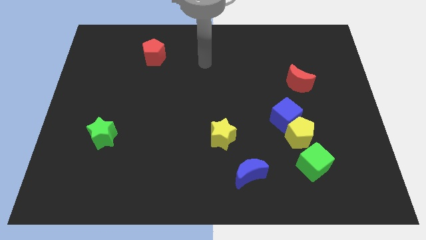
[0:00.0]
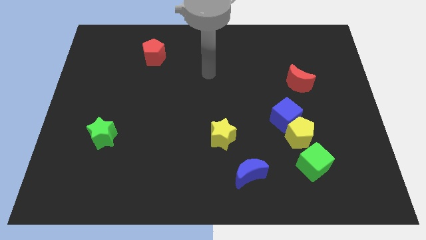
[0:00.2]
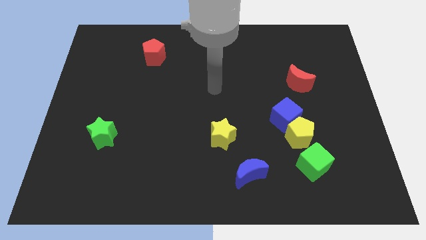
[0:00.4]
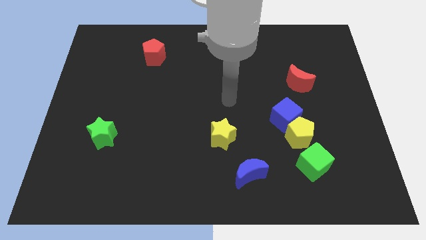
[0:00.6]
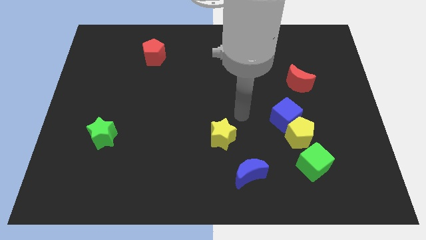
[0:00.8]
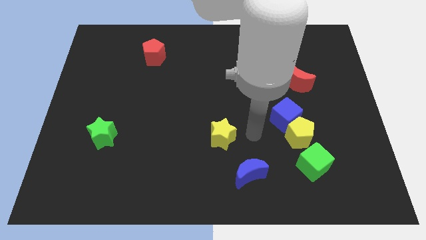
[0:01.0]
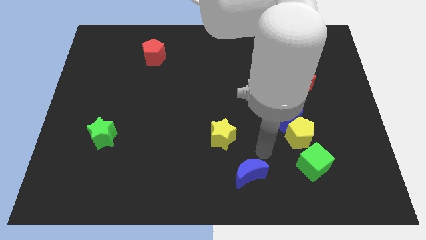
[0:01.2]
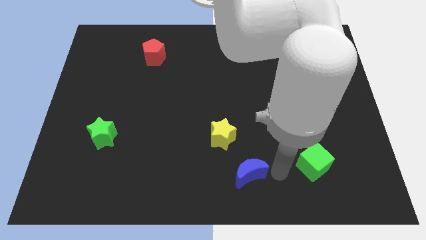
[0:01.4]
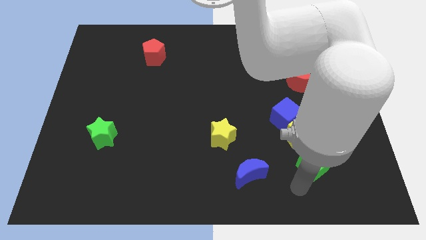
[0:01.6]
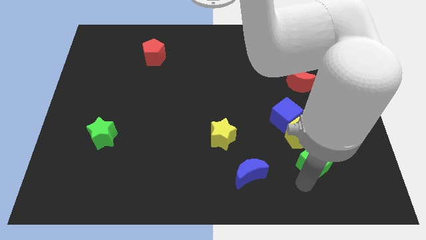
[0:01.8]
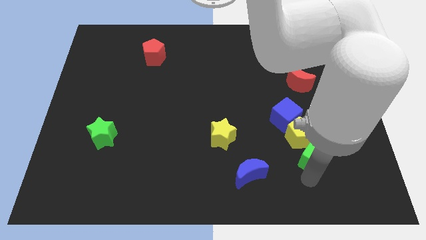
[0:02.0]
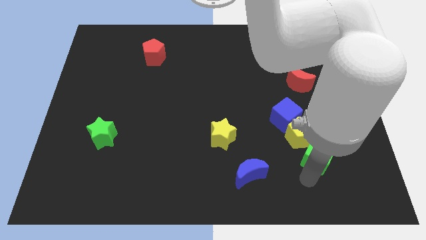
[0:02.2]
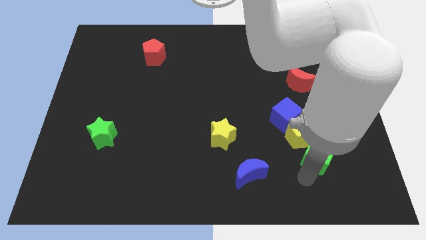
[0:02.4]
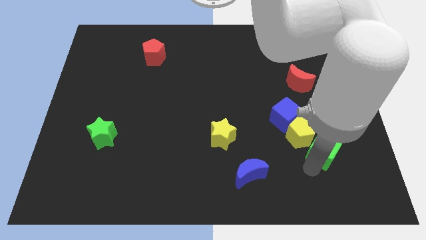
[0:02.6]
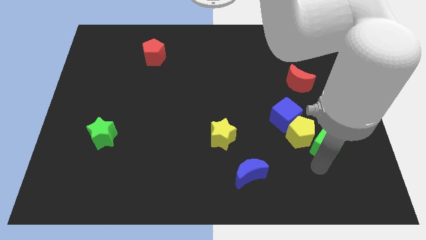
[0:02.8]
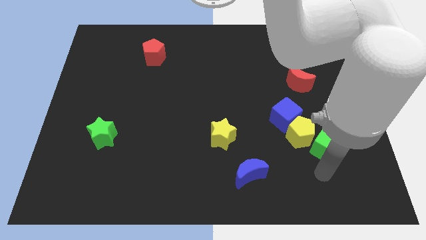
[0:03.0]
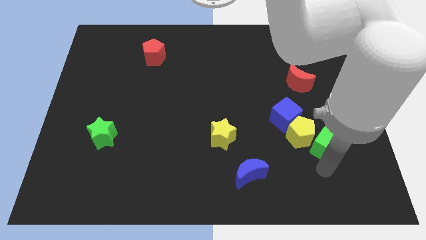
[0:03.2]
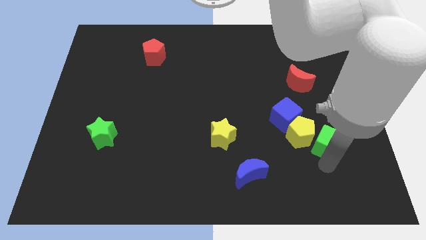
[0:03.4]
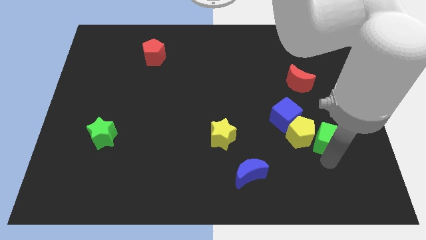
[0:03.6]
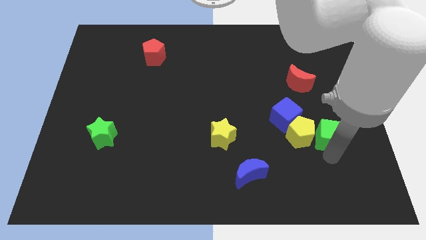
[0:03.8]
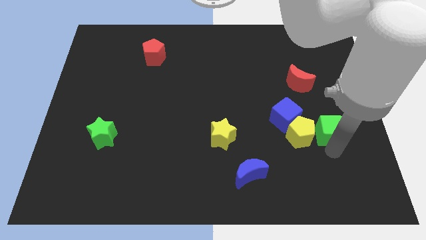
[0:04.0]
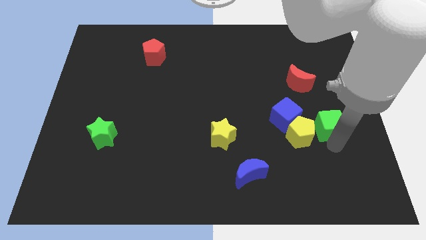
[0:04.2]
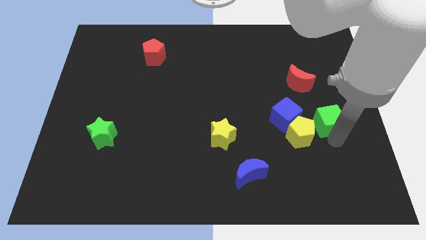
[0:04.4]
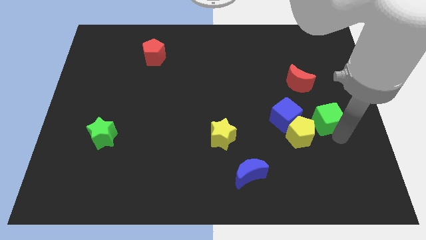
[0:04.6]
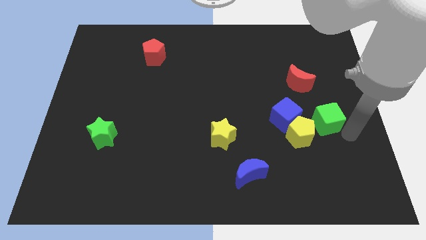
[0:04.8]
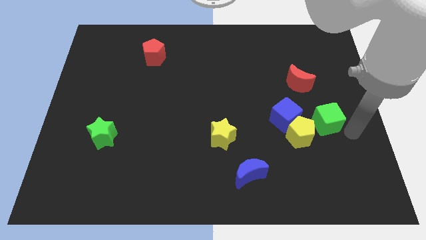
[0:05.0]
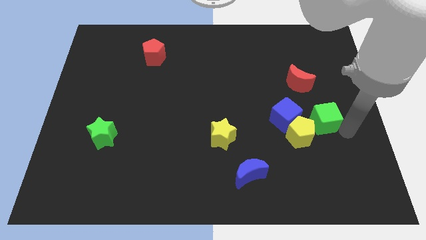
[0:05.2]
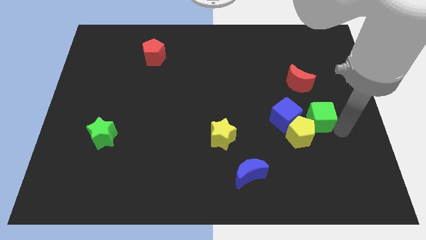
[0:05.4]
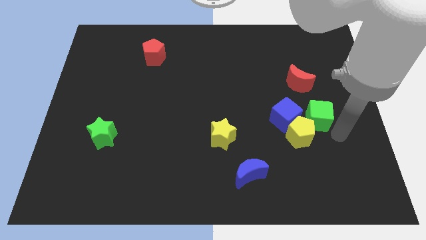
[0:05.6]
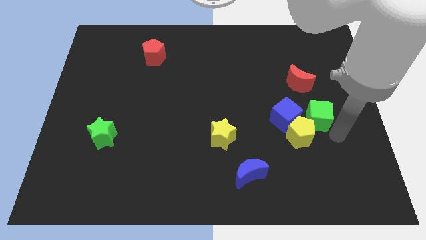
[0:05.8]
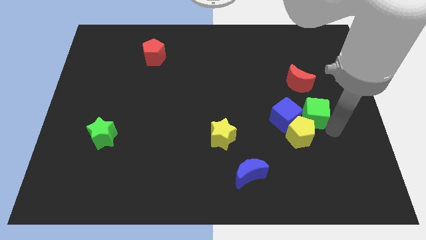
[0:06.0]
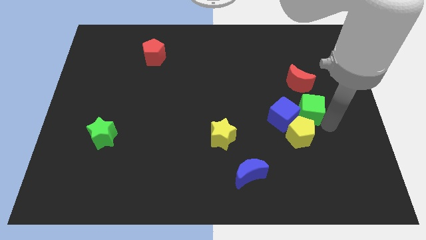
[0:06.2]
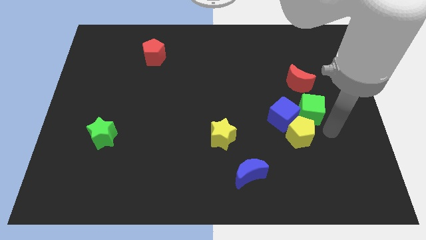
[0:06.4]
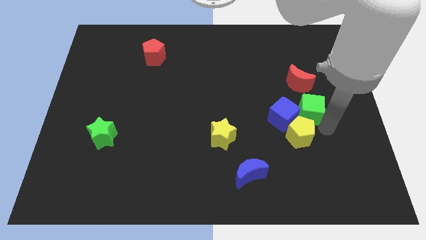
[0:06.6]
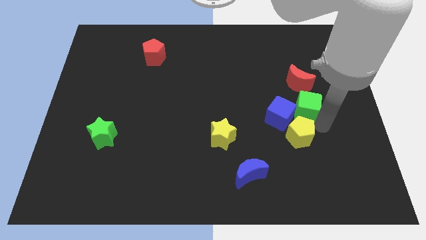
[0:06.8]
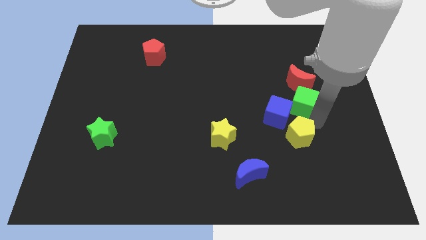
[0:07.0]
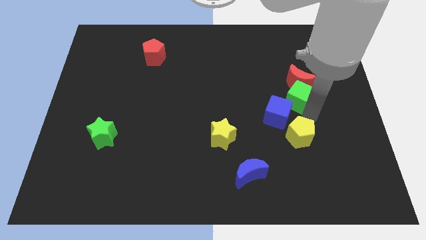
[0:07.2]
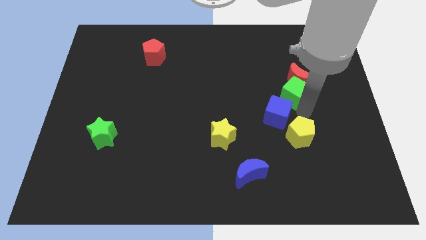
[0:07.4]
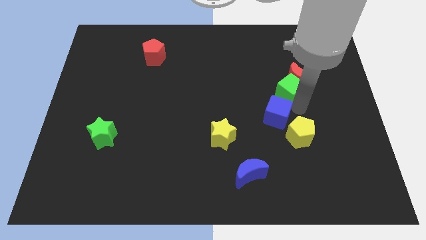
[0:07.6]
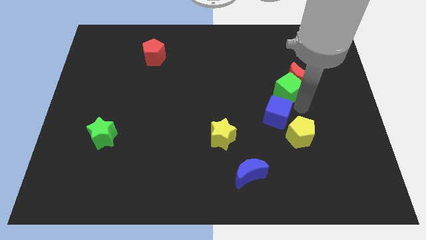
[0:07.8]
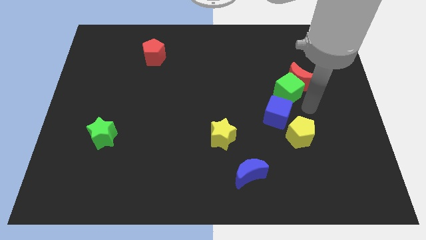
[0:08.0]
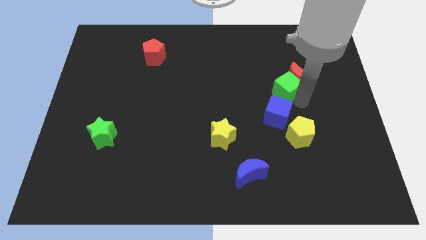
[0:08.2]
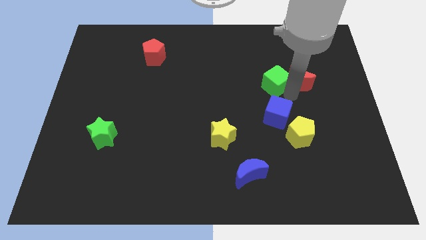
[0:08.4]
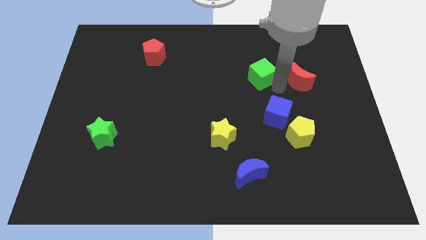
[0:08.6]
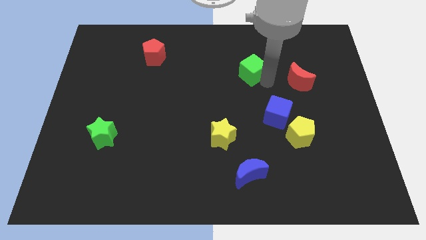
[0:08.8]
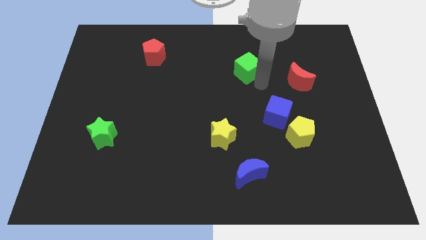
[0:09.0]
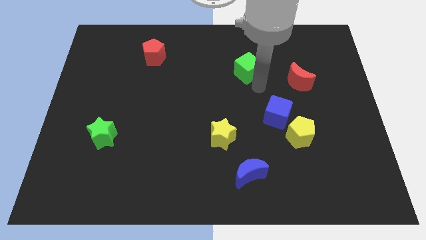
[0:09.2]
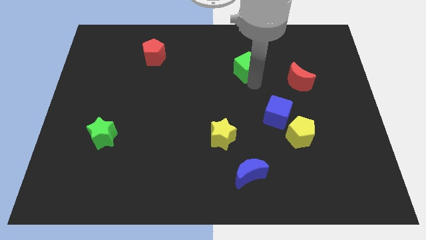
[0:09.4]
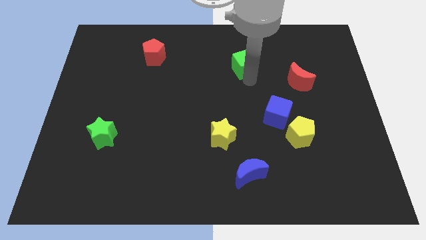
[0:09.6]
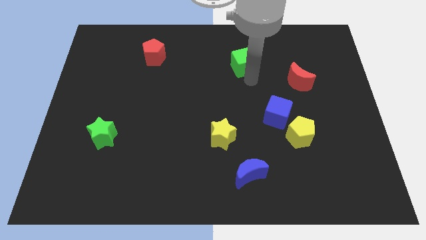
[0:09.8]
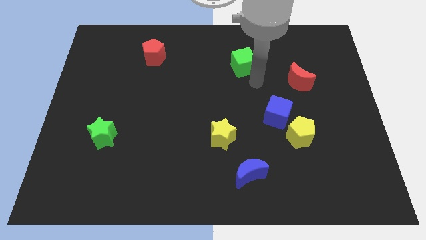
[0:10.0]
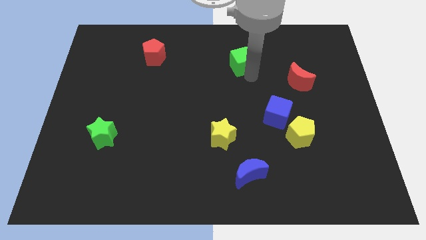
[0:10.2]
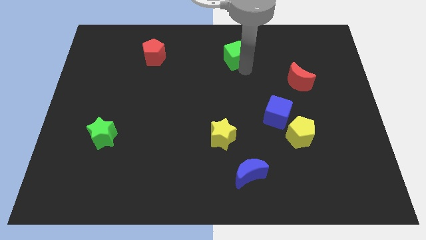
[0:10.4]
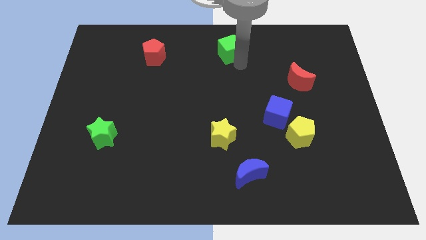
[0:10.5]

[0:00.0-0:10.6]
move the green cube to the top side

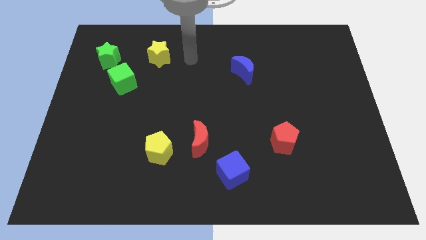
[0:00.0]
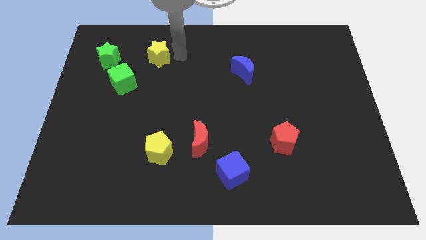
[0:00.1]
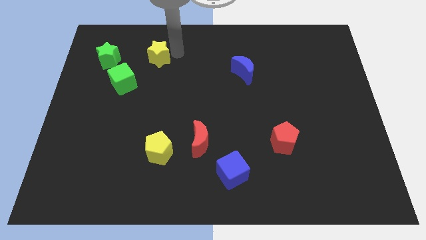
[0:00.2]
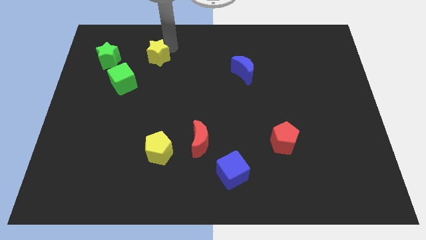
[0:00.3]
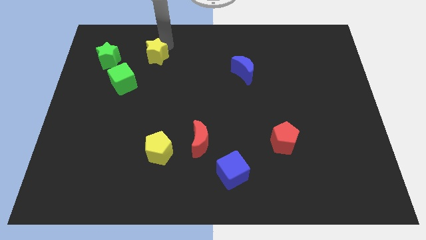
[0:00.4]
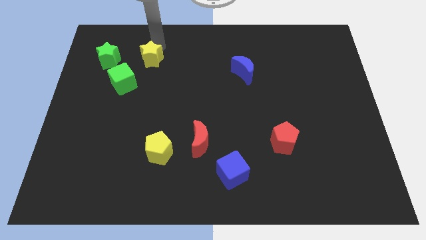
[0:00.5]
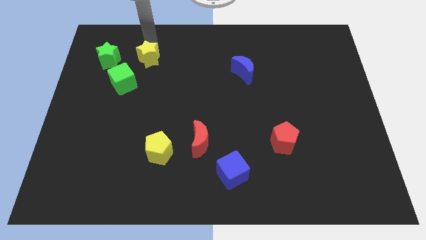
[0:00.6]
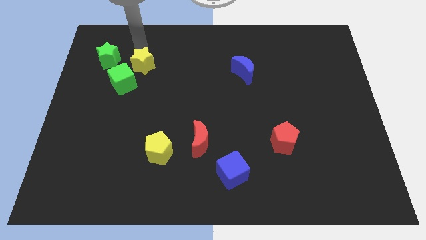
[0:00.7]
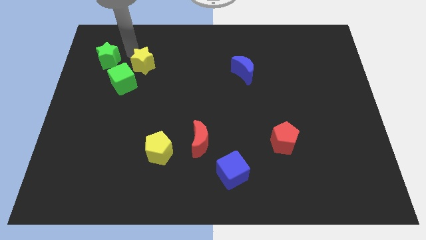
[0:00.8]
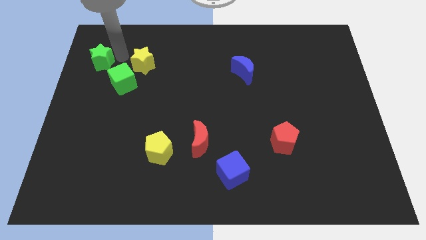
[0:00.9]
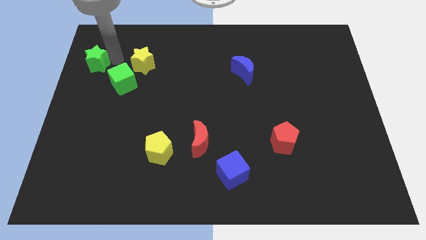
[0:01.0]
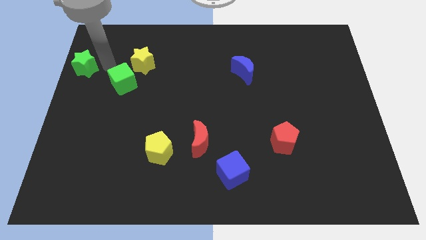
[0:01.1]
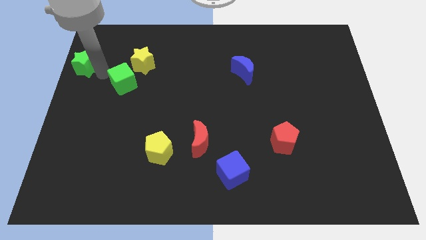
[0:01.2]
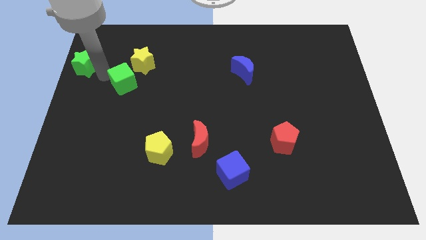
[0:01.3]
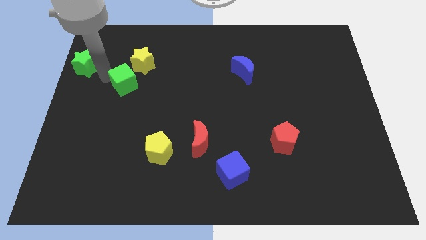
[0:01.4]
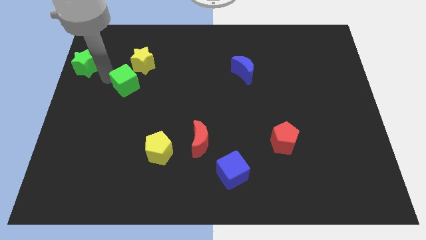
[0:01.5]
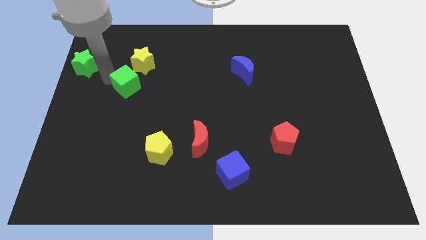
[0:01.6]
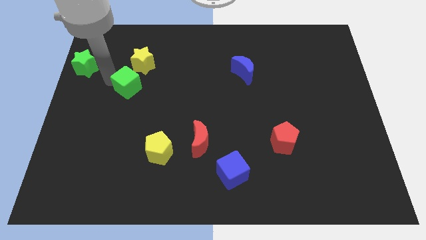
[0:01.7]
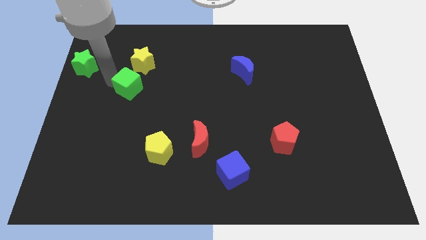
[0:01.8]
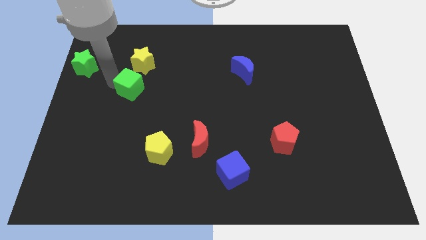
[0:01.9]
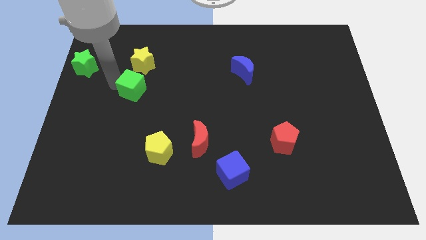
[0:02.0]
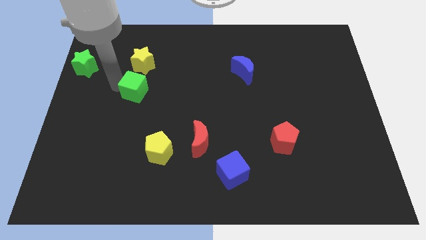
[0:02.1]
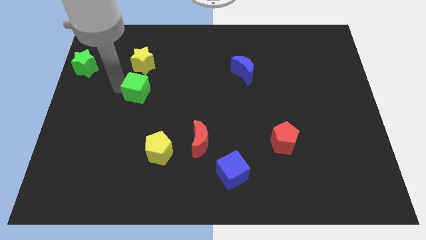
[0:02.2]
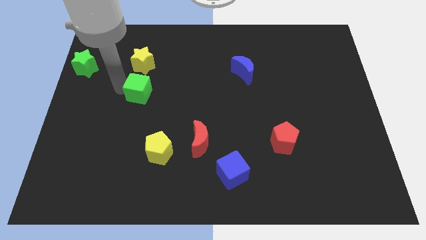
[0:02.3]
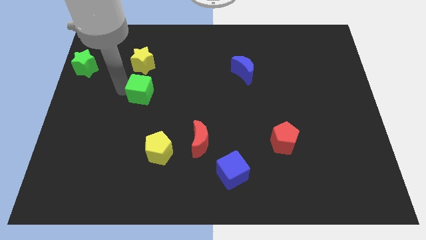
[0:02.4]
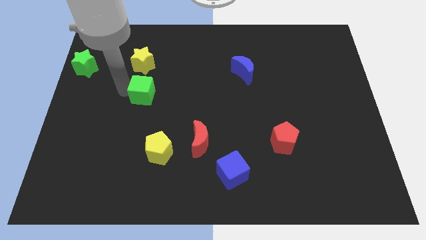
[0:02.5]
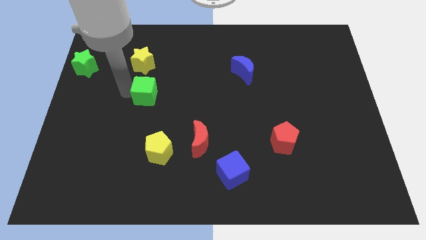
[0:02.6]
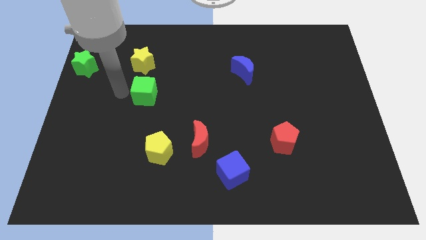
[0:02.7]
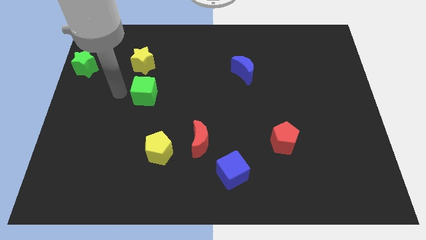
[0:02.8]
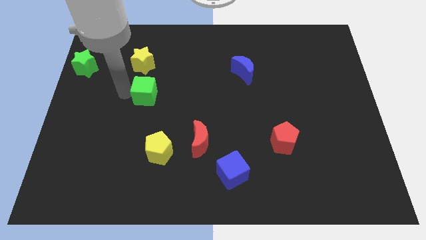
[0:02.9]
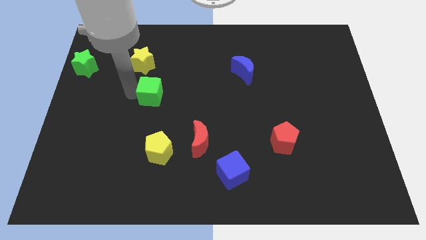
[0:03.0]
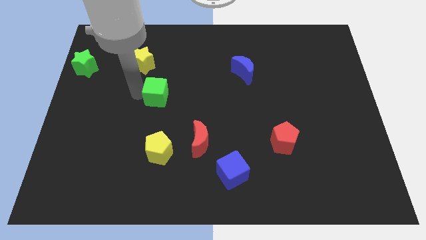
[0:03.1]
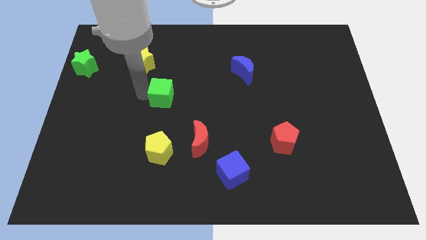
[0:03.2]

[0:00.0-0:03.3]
push the green cube to the center

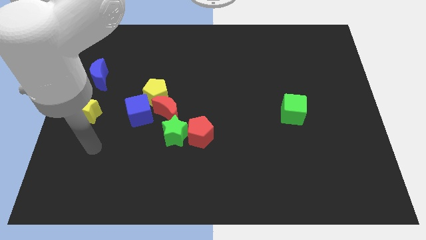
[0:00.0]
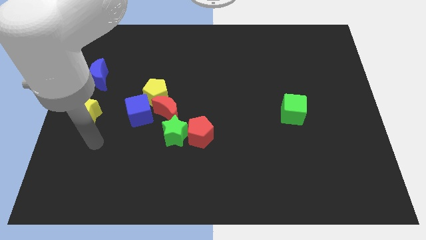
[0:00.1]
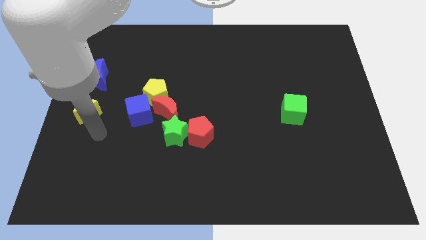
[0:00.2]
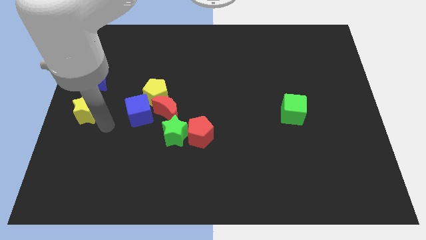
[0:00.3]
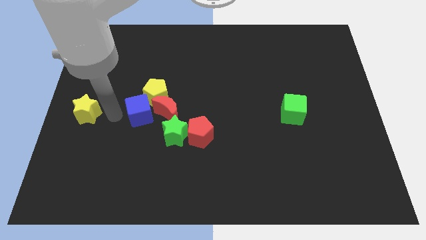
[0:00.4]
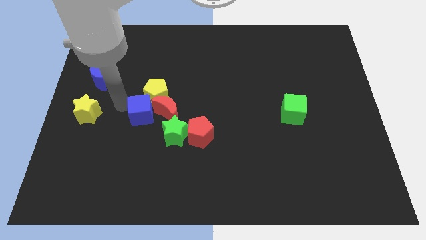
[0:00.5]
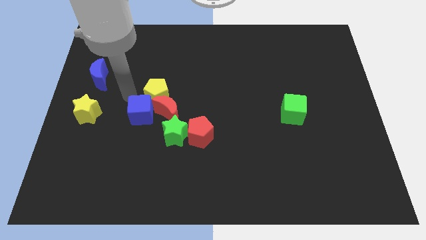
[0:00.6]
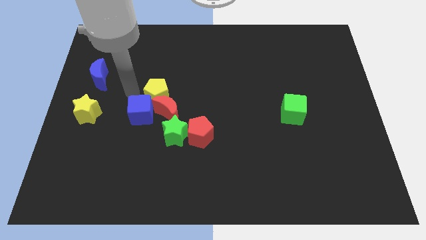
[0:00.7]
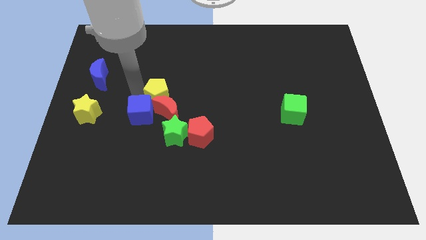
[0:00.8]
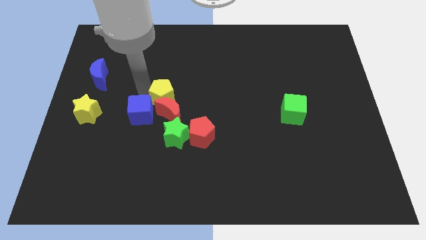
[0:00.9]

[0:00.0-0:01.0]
move the yellow pentagon to the center
